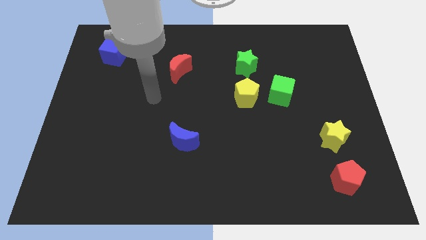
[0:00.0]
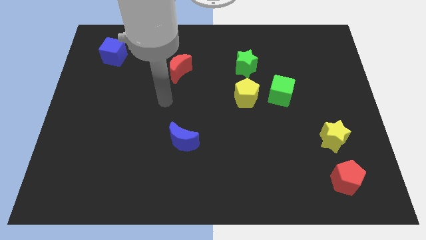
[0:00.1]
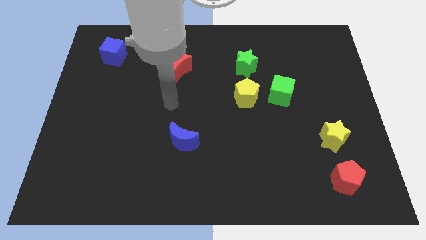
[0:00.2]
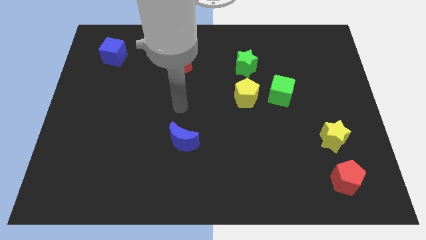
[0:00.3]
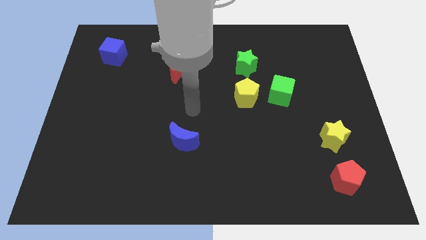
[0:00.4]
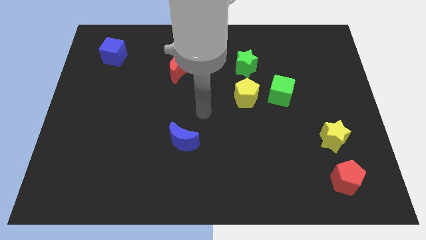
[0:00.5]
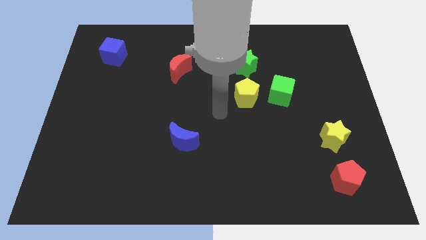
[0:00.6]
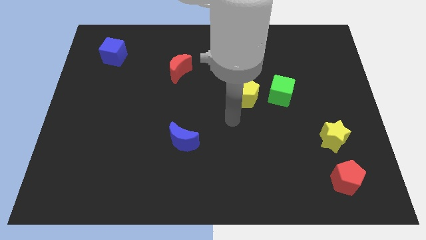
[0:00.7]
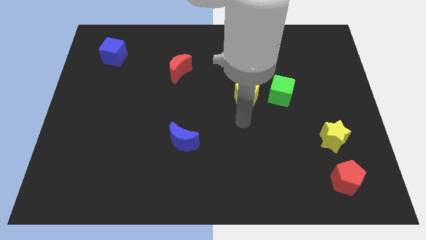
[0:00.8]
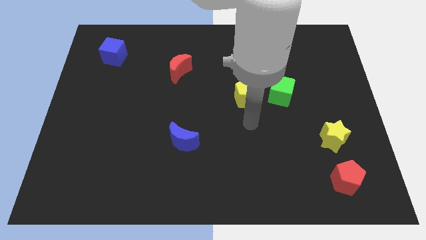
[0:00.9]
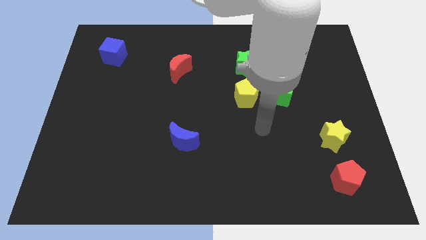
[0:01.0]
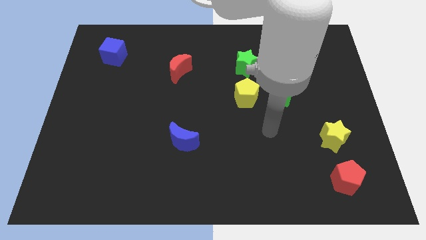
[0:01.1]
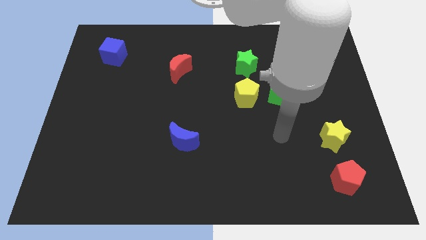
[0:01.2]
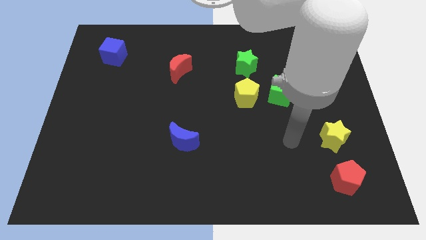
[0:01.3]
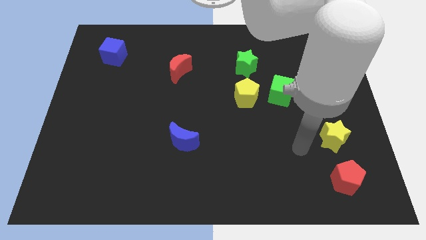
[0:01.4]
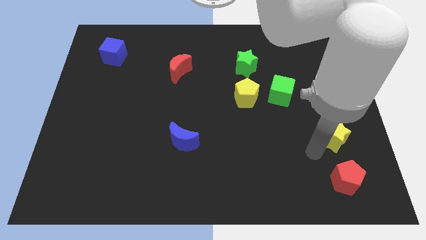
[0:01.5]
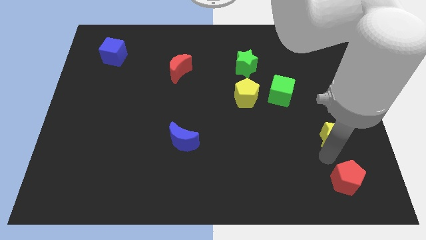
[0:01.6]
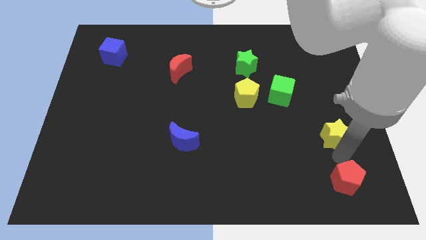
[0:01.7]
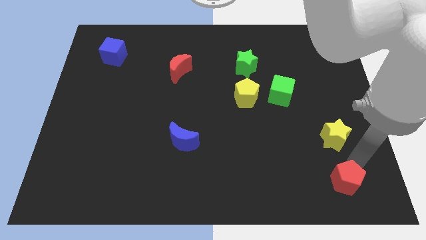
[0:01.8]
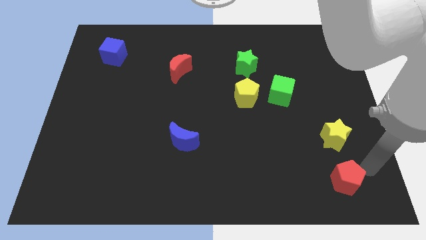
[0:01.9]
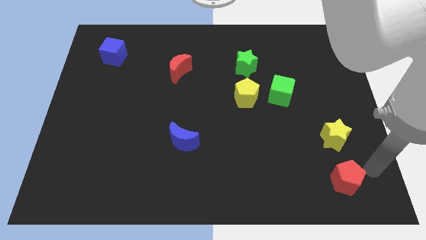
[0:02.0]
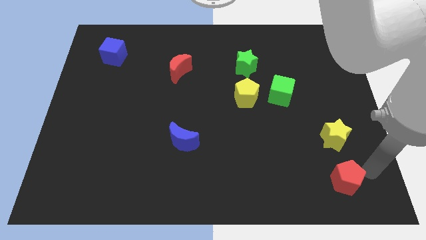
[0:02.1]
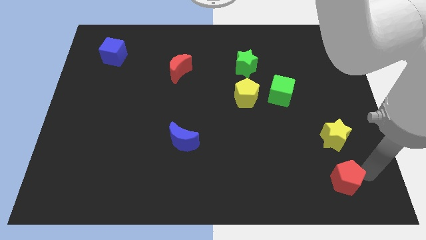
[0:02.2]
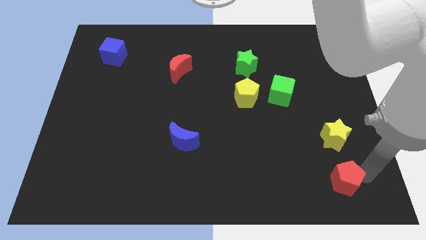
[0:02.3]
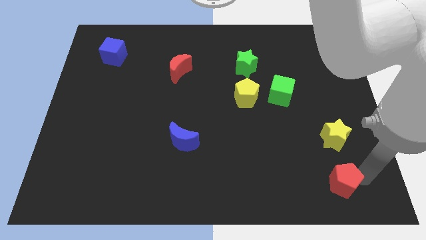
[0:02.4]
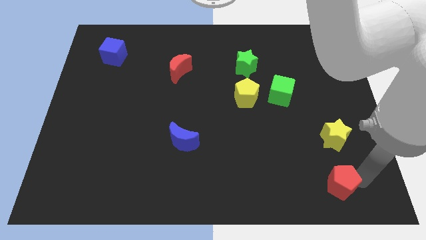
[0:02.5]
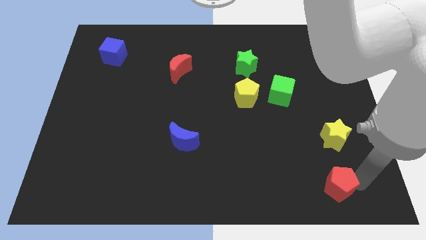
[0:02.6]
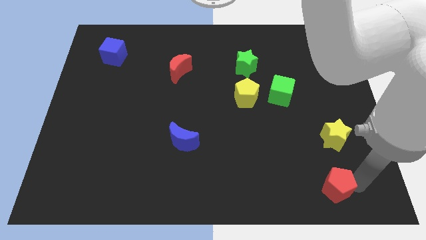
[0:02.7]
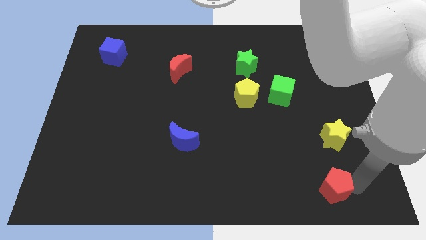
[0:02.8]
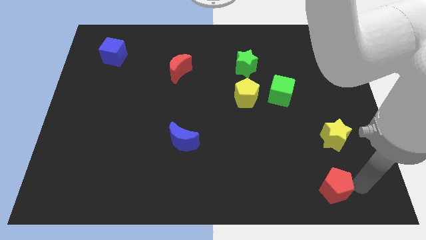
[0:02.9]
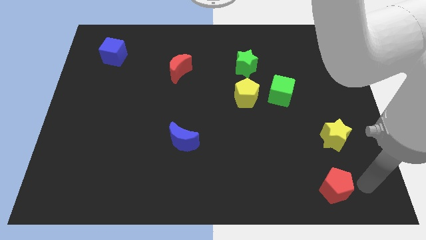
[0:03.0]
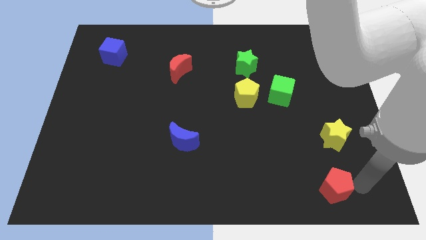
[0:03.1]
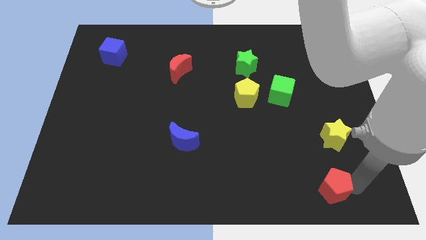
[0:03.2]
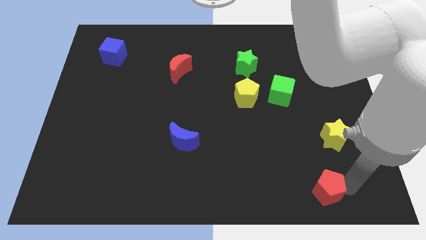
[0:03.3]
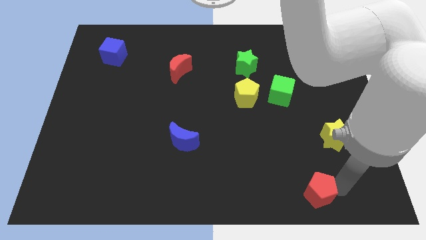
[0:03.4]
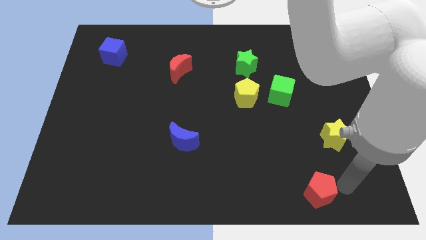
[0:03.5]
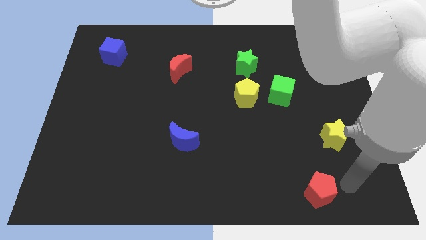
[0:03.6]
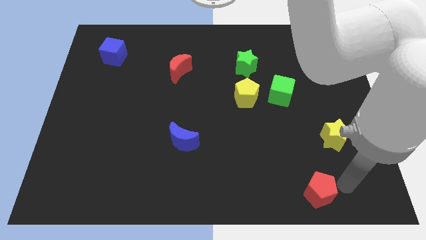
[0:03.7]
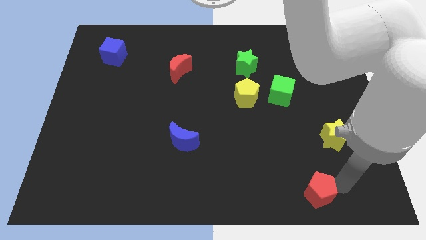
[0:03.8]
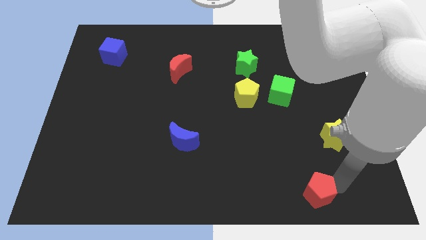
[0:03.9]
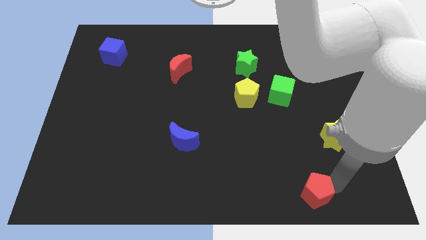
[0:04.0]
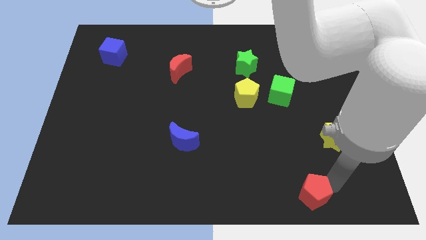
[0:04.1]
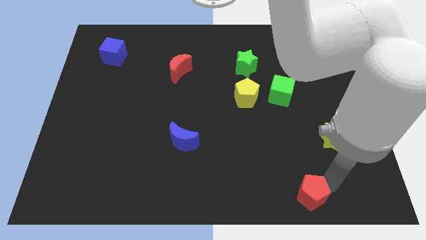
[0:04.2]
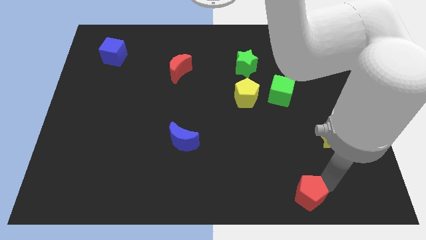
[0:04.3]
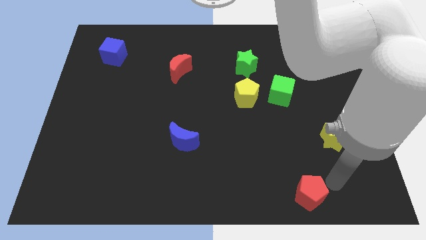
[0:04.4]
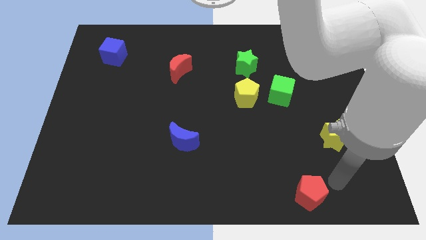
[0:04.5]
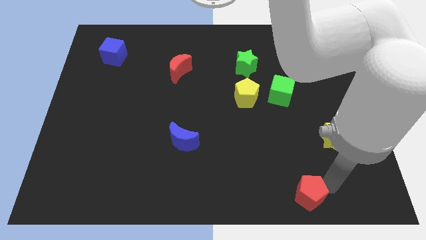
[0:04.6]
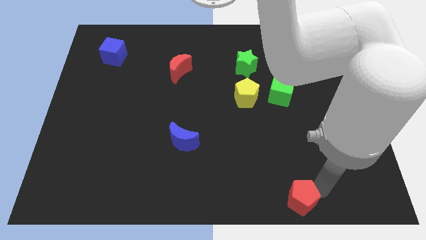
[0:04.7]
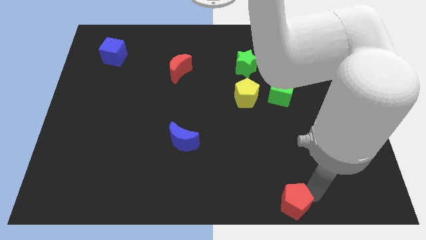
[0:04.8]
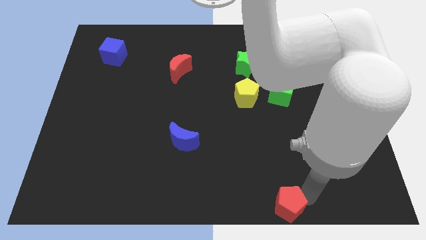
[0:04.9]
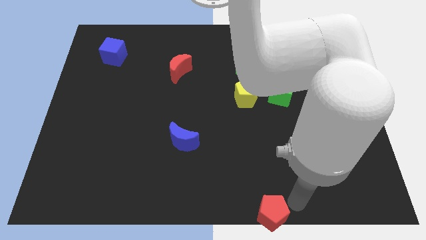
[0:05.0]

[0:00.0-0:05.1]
move the red pentagon to the bottom side
